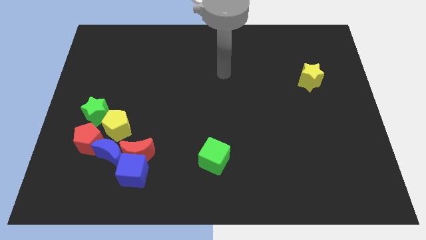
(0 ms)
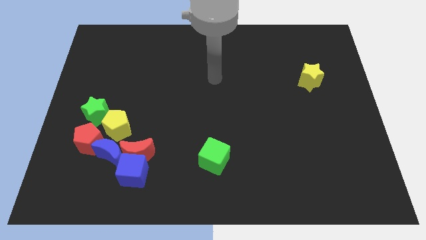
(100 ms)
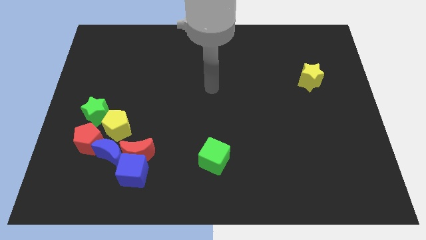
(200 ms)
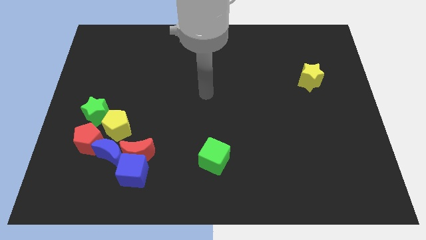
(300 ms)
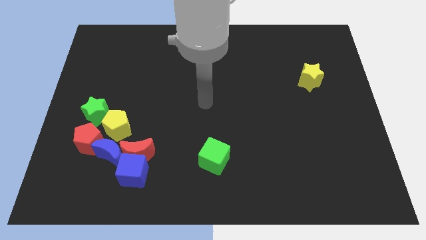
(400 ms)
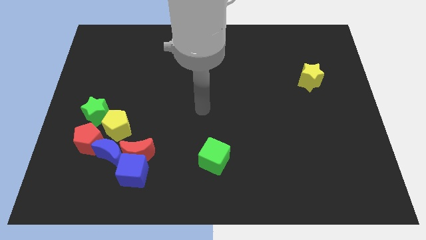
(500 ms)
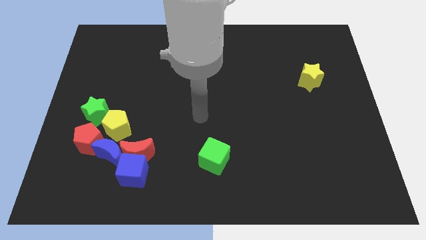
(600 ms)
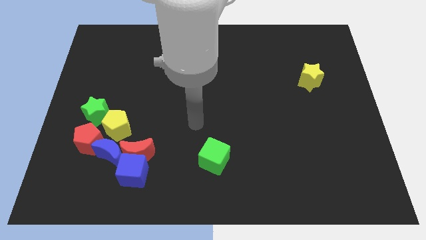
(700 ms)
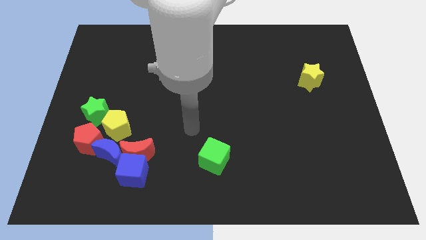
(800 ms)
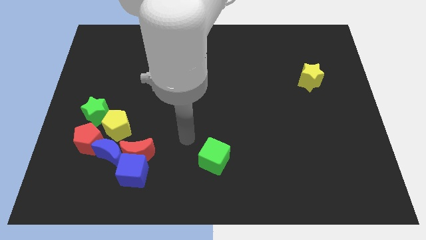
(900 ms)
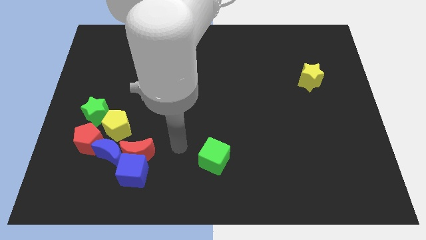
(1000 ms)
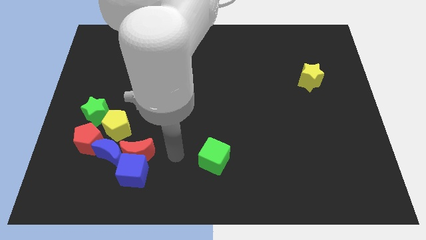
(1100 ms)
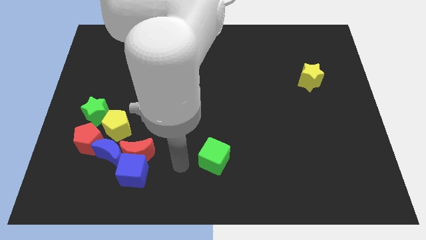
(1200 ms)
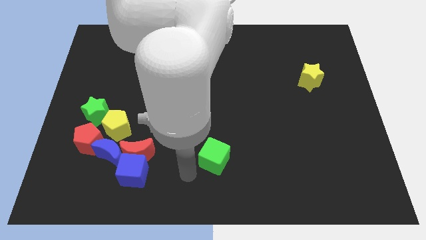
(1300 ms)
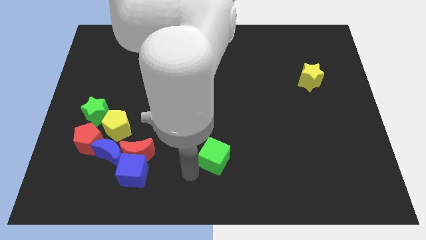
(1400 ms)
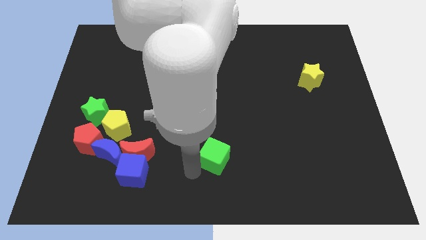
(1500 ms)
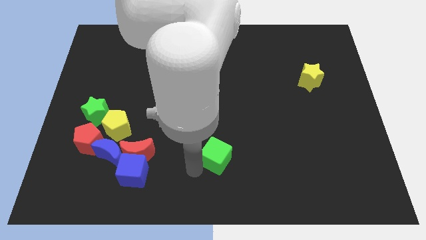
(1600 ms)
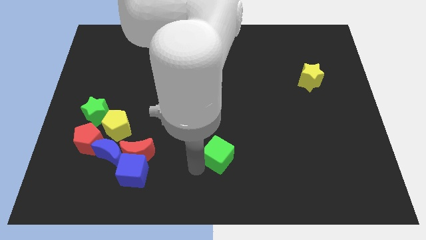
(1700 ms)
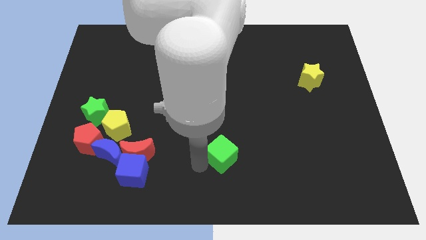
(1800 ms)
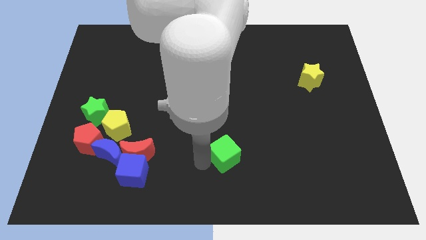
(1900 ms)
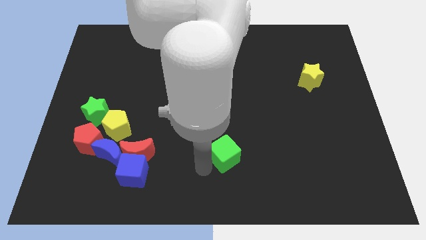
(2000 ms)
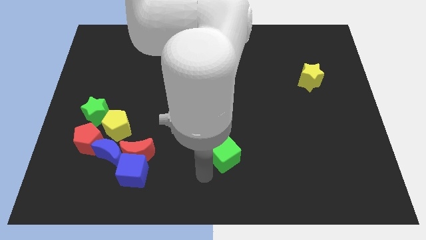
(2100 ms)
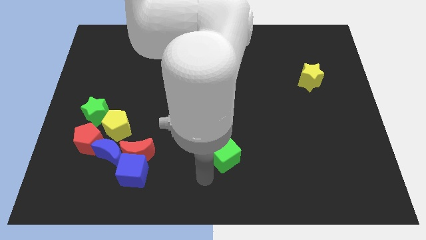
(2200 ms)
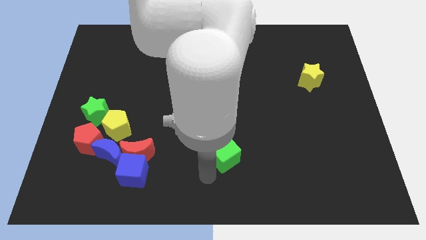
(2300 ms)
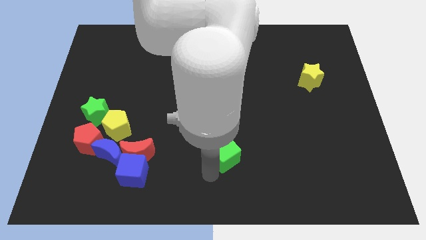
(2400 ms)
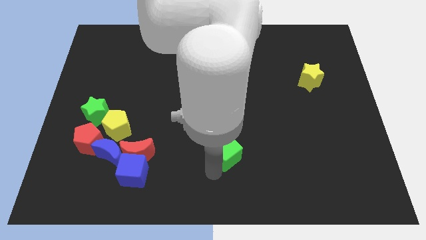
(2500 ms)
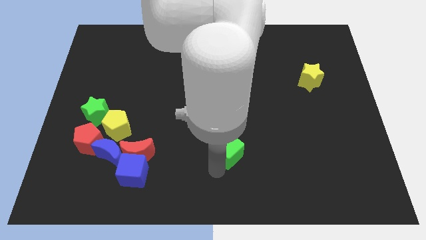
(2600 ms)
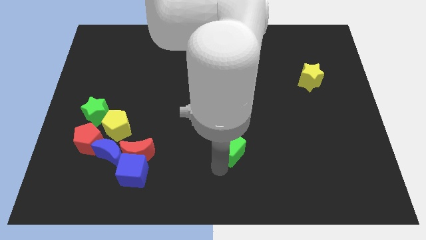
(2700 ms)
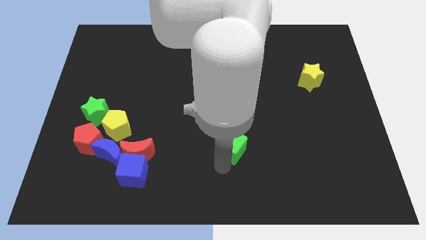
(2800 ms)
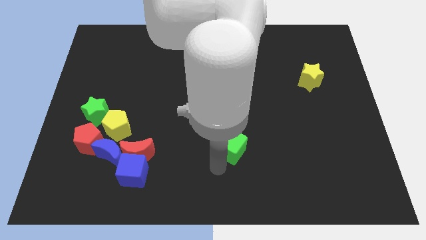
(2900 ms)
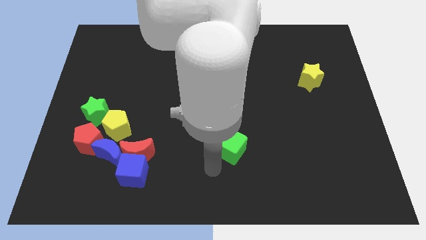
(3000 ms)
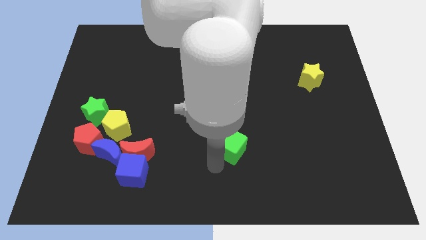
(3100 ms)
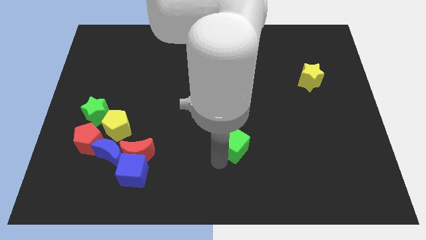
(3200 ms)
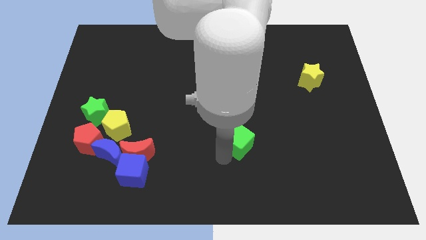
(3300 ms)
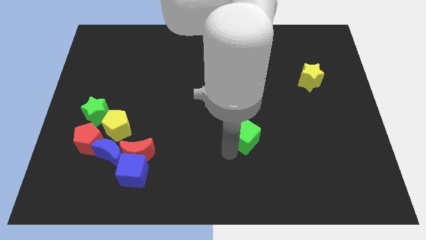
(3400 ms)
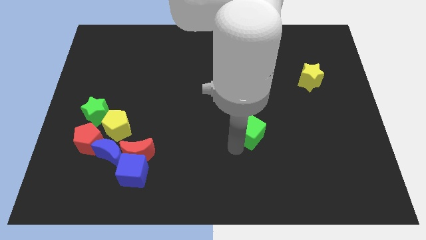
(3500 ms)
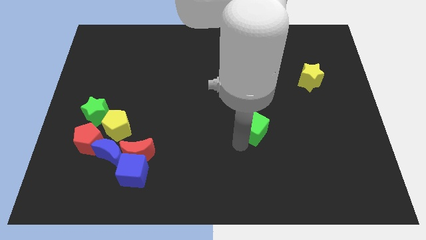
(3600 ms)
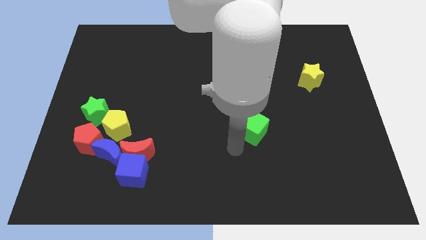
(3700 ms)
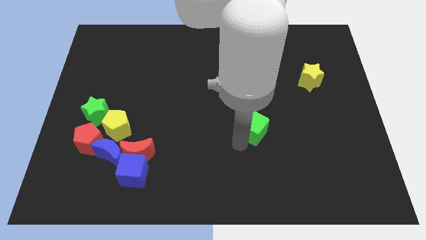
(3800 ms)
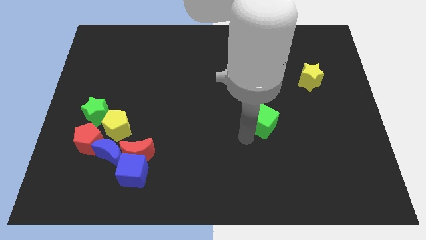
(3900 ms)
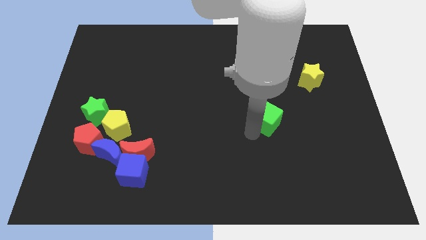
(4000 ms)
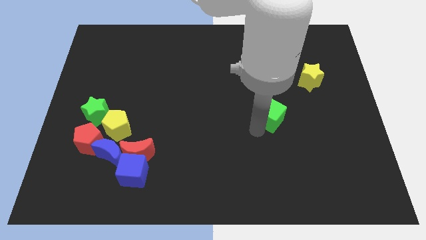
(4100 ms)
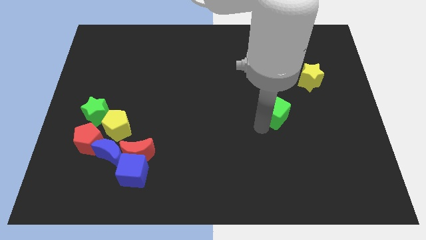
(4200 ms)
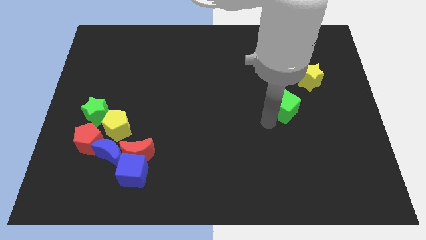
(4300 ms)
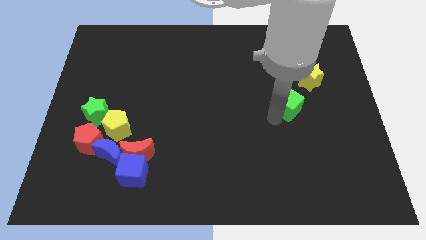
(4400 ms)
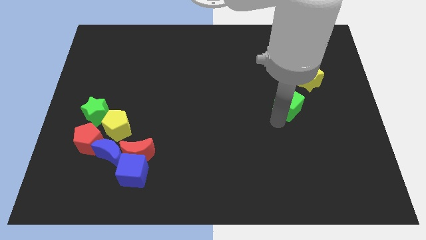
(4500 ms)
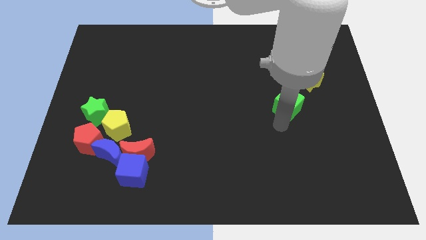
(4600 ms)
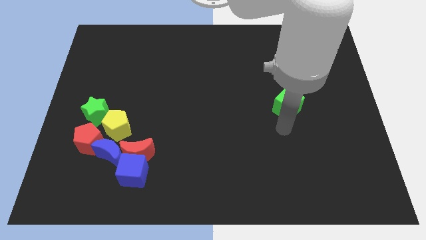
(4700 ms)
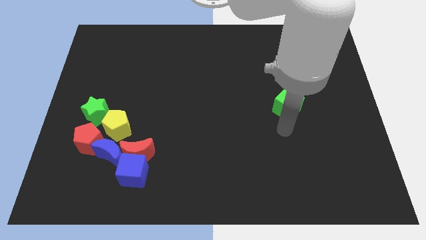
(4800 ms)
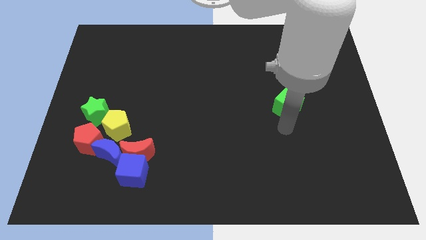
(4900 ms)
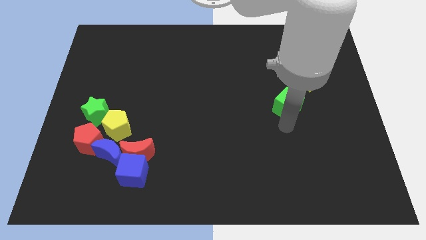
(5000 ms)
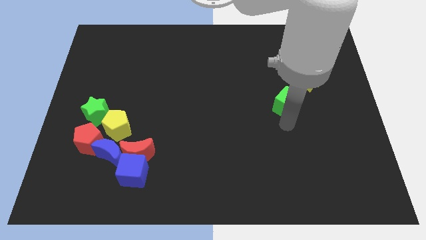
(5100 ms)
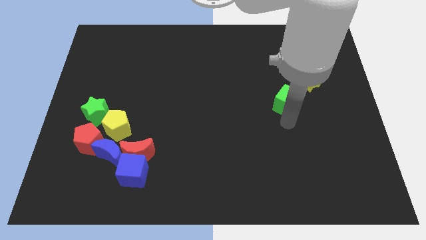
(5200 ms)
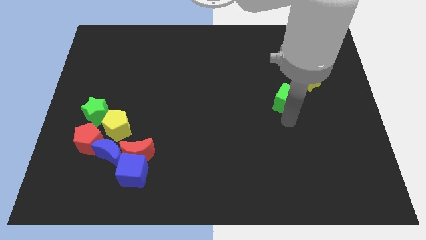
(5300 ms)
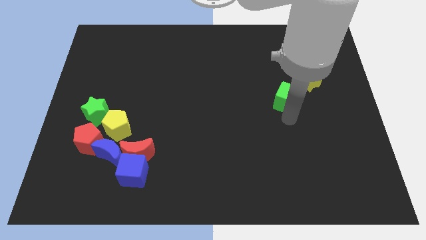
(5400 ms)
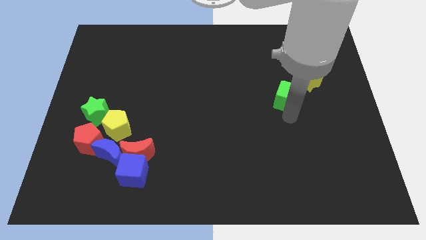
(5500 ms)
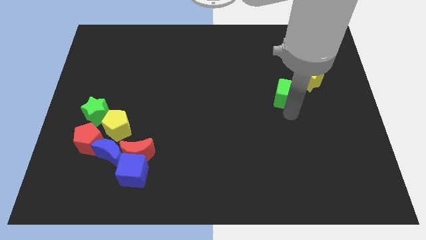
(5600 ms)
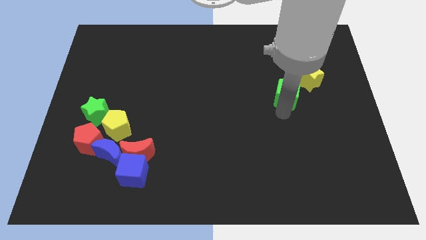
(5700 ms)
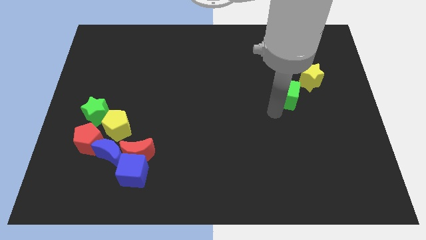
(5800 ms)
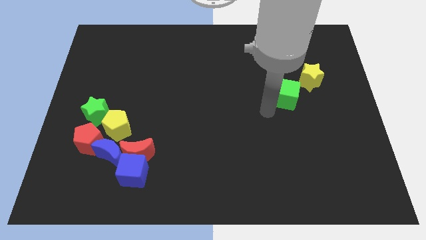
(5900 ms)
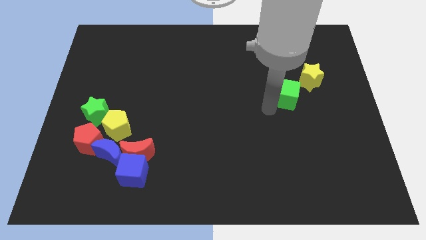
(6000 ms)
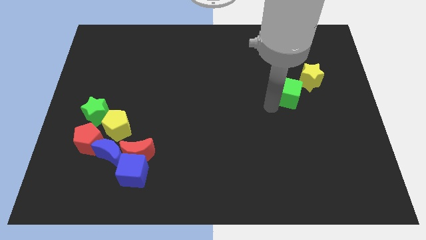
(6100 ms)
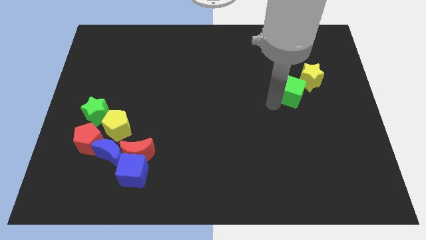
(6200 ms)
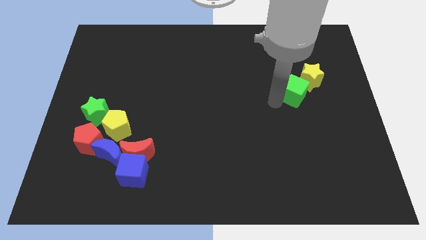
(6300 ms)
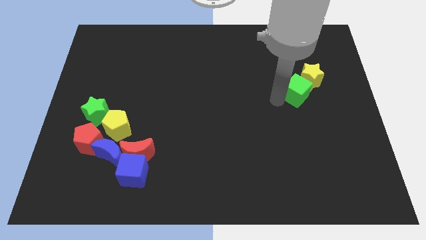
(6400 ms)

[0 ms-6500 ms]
push the green cube towards the yellow star
